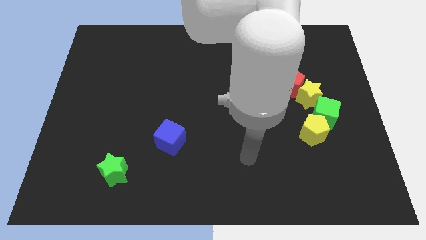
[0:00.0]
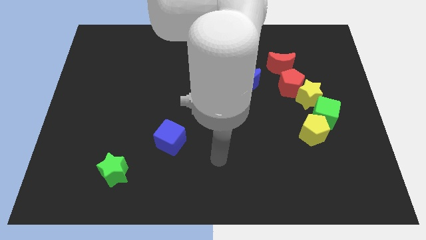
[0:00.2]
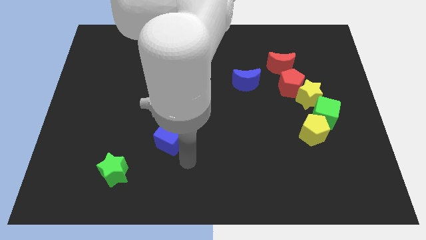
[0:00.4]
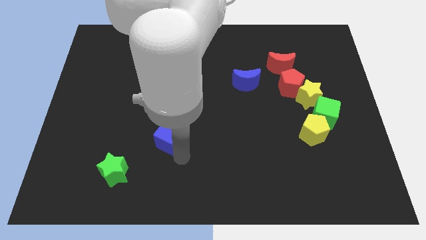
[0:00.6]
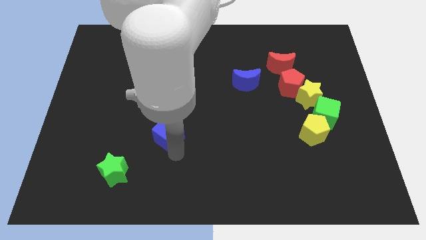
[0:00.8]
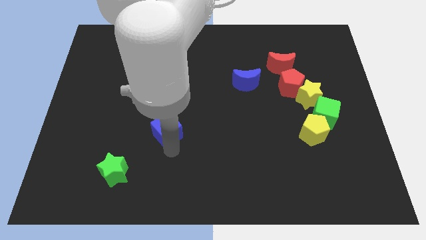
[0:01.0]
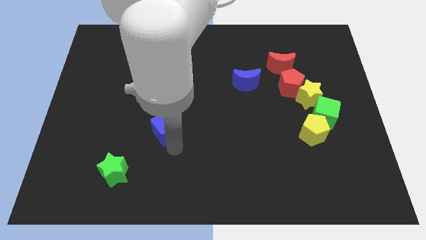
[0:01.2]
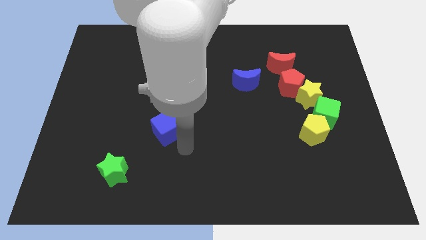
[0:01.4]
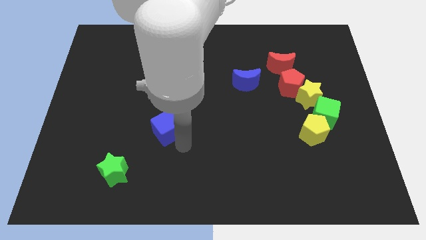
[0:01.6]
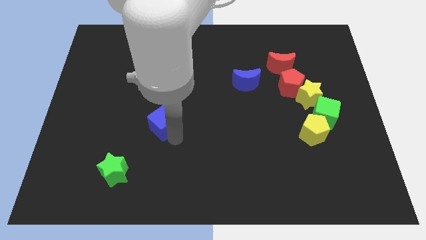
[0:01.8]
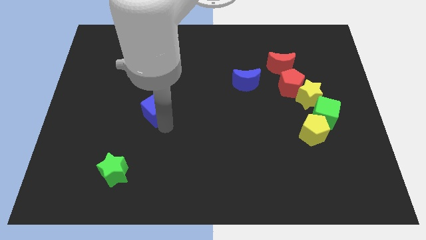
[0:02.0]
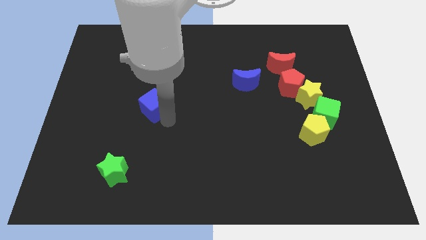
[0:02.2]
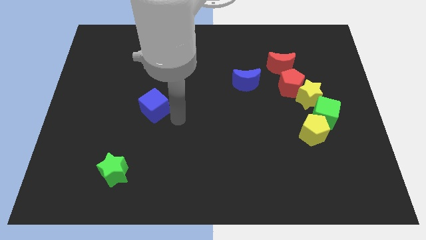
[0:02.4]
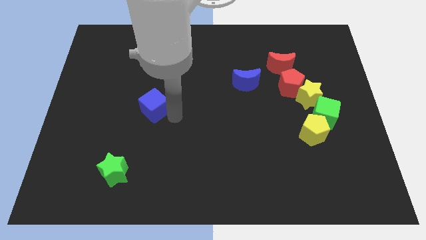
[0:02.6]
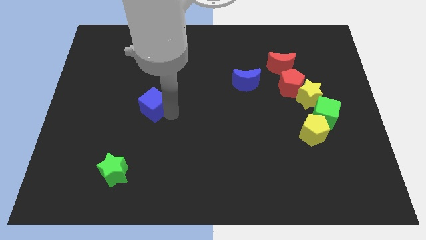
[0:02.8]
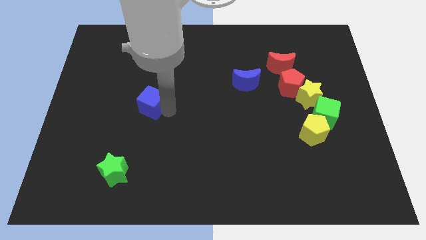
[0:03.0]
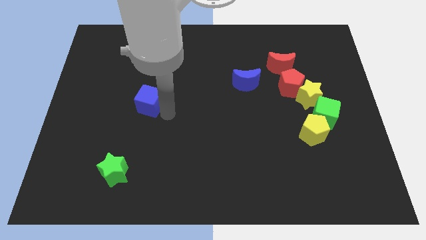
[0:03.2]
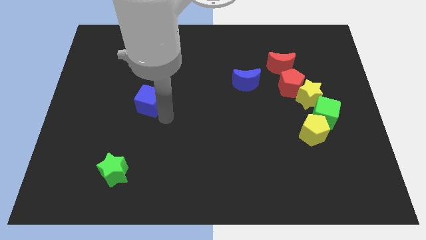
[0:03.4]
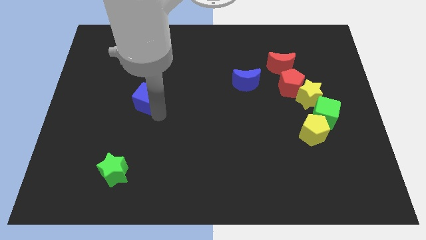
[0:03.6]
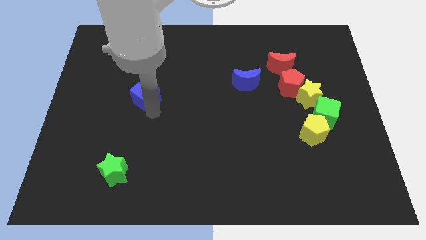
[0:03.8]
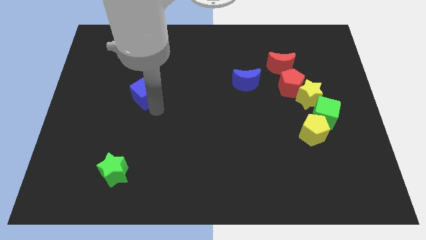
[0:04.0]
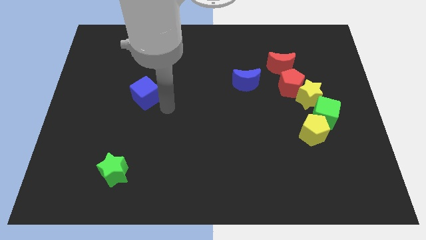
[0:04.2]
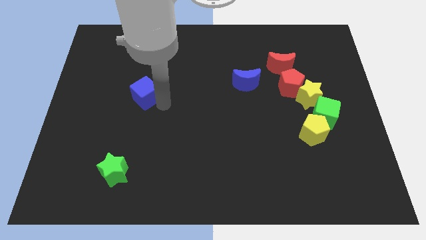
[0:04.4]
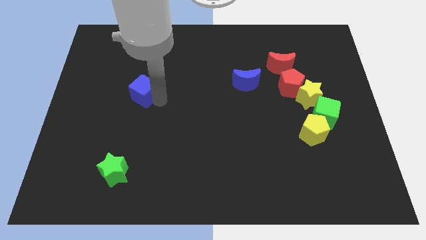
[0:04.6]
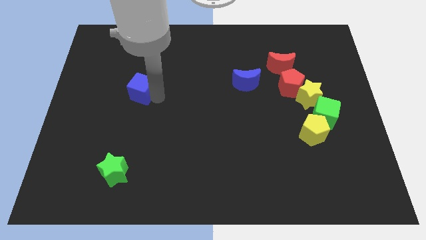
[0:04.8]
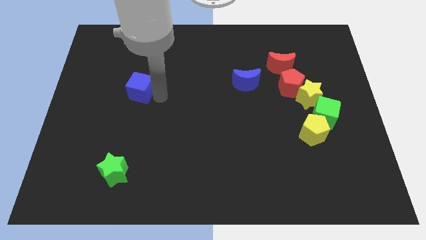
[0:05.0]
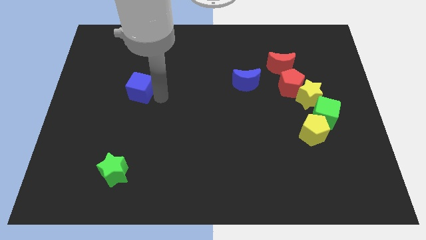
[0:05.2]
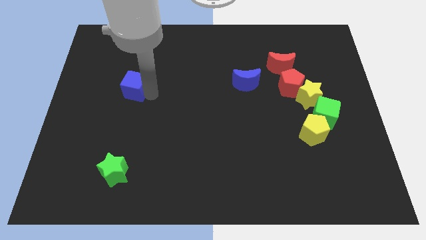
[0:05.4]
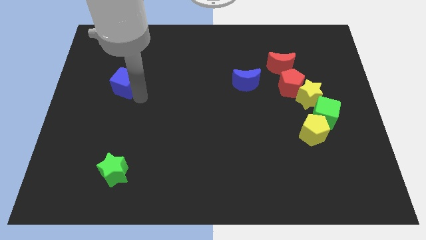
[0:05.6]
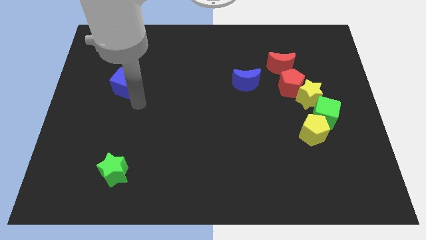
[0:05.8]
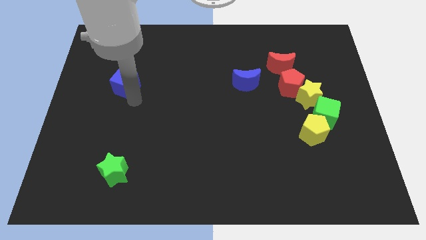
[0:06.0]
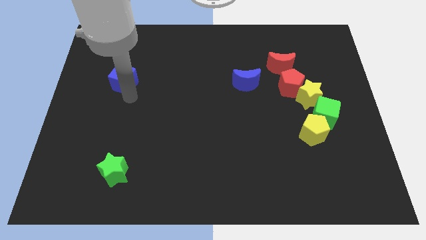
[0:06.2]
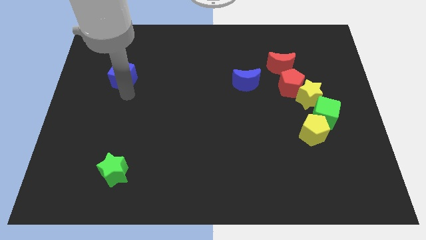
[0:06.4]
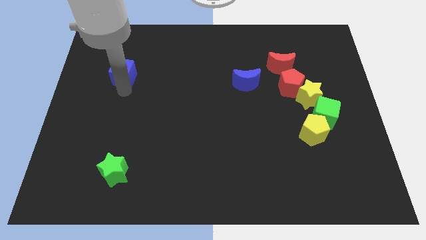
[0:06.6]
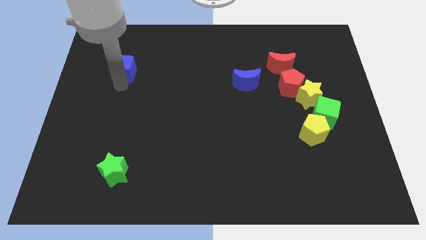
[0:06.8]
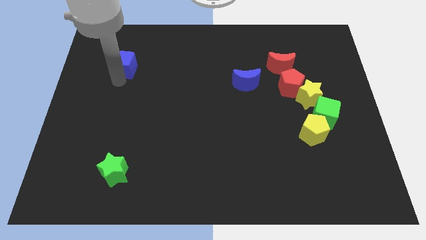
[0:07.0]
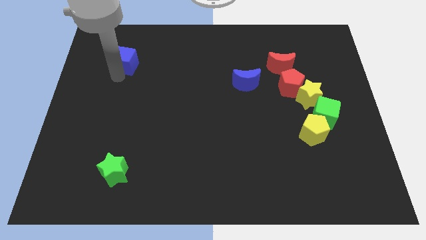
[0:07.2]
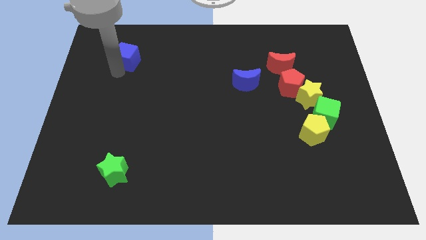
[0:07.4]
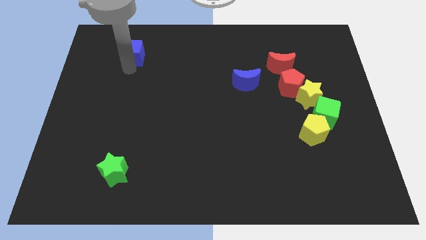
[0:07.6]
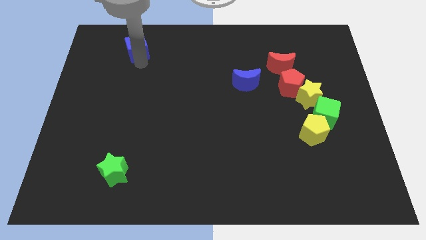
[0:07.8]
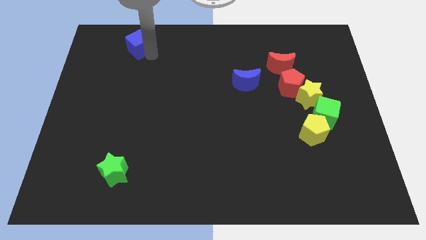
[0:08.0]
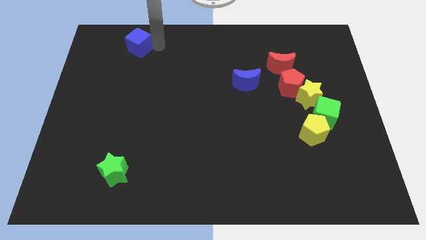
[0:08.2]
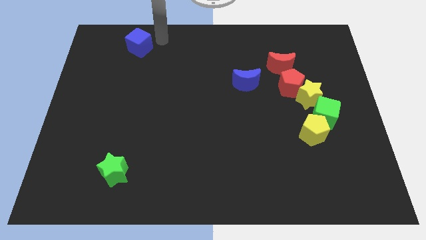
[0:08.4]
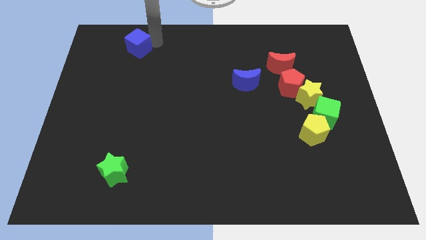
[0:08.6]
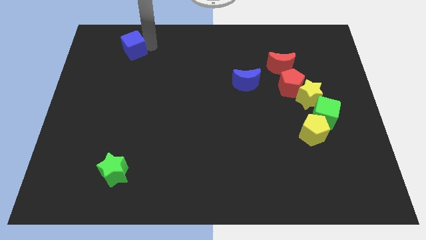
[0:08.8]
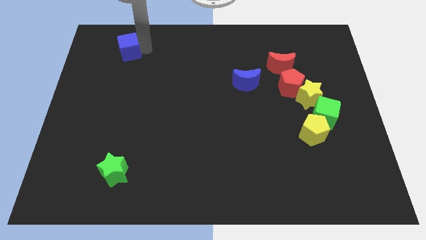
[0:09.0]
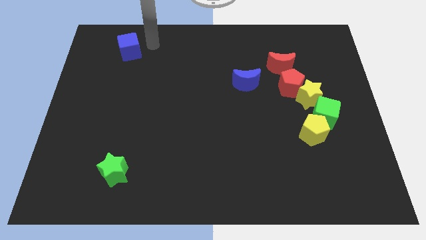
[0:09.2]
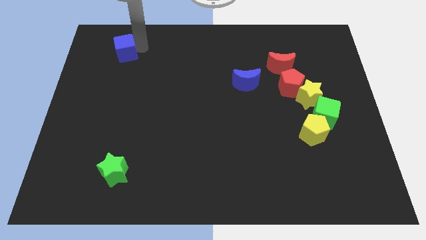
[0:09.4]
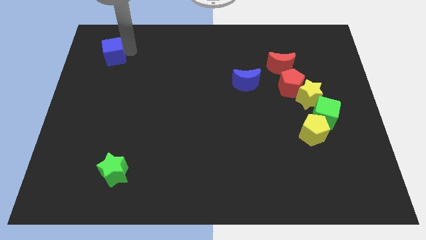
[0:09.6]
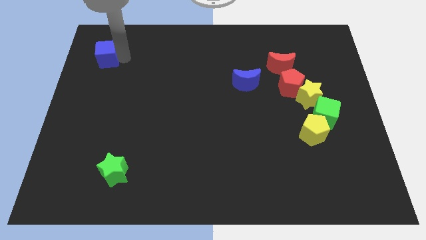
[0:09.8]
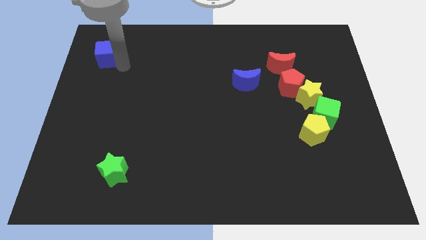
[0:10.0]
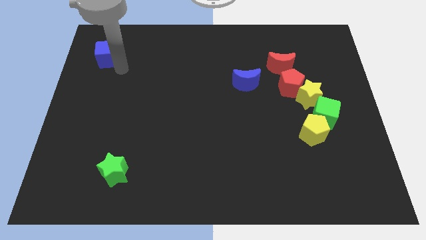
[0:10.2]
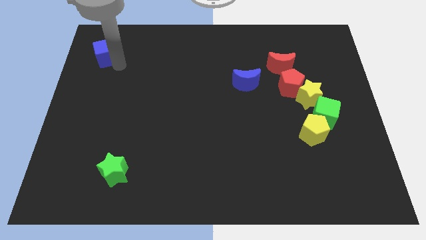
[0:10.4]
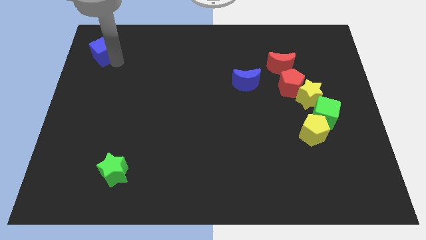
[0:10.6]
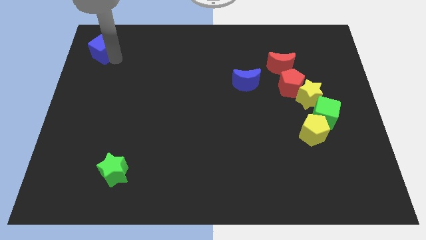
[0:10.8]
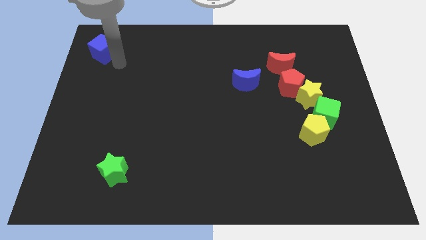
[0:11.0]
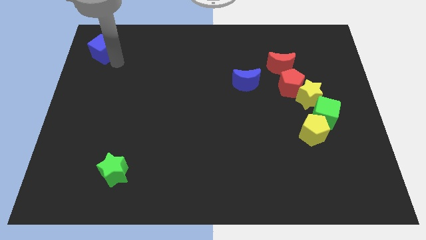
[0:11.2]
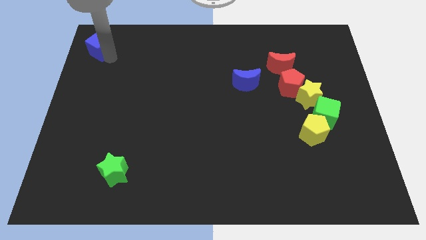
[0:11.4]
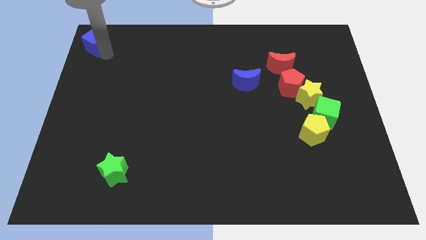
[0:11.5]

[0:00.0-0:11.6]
push the blue cube to the upper left corner

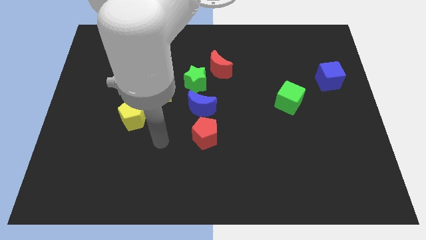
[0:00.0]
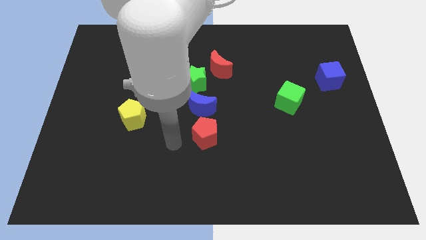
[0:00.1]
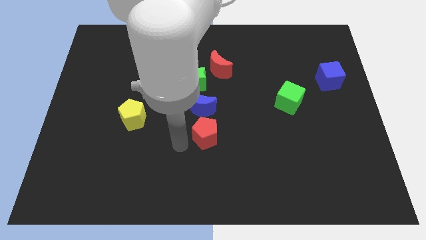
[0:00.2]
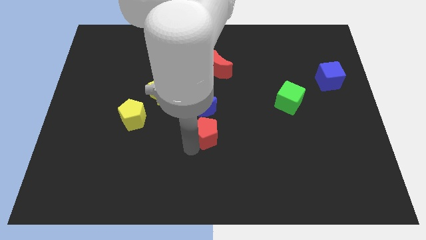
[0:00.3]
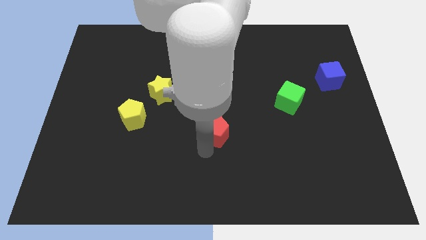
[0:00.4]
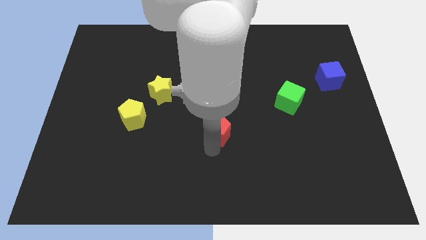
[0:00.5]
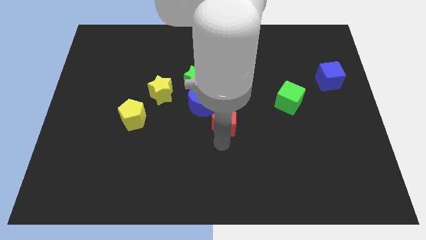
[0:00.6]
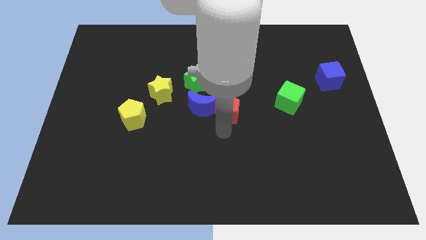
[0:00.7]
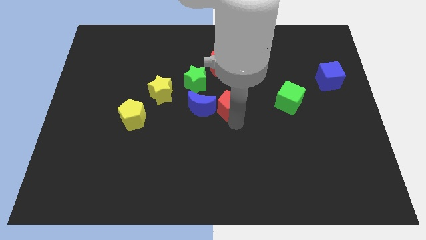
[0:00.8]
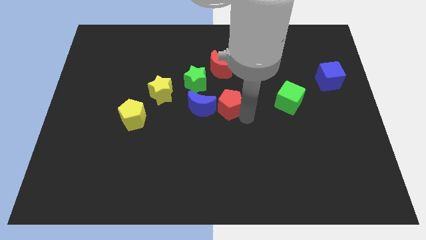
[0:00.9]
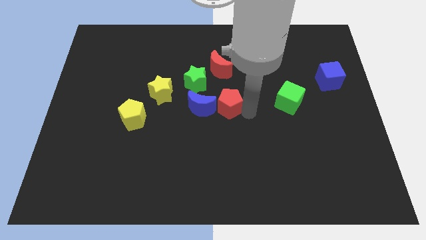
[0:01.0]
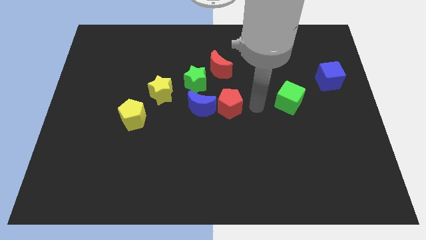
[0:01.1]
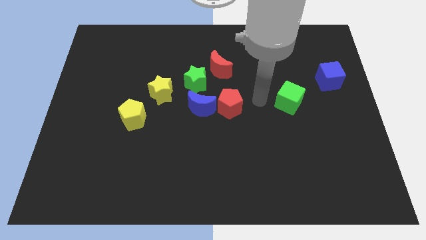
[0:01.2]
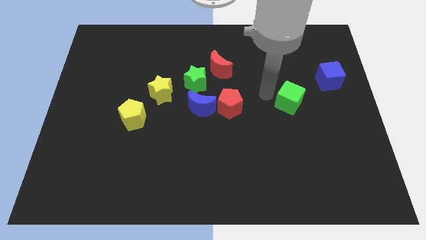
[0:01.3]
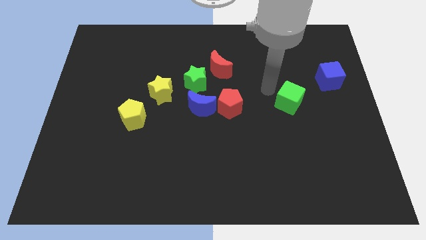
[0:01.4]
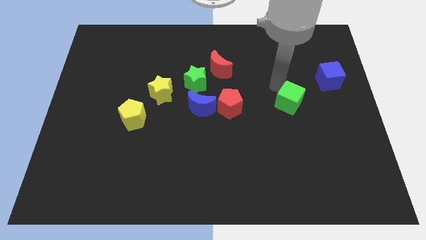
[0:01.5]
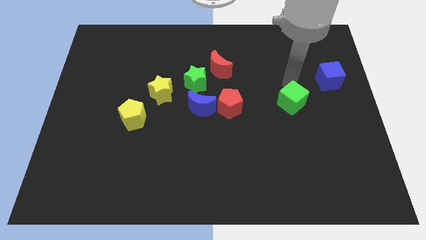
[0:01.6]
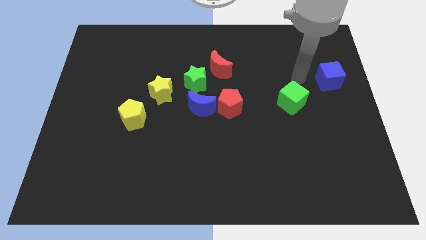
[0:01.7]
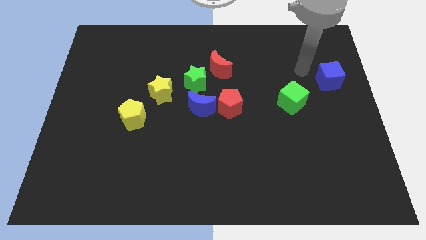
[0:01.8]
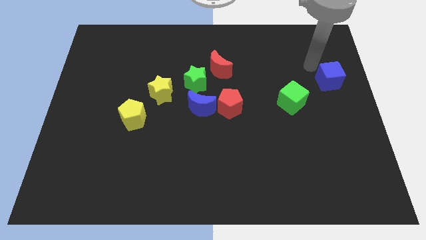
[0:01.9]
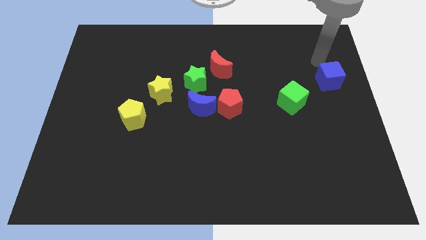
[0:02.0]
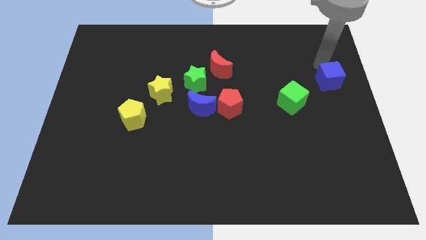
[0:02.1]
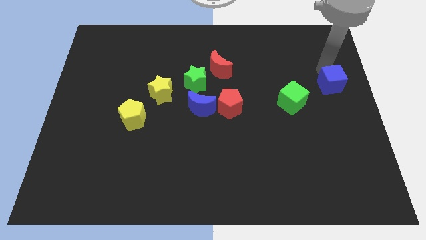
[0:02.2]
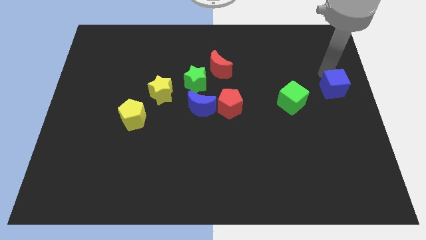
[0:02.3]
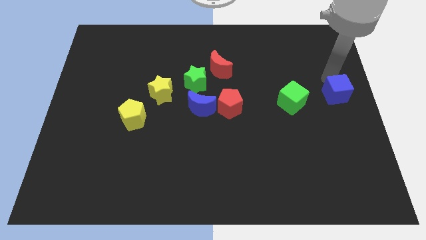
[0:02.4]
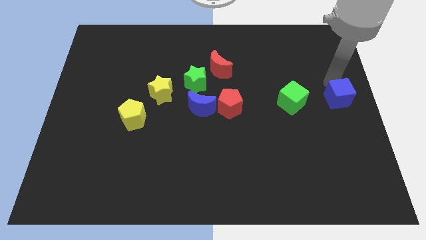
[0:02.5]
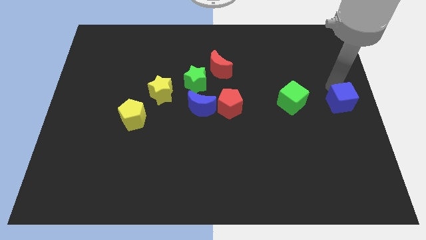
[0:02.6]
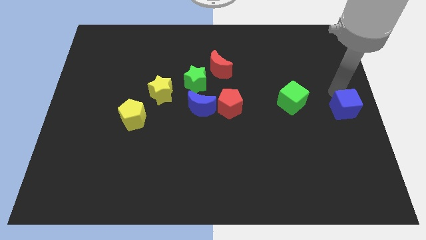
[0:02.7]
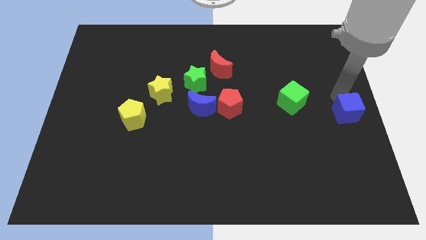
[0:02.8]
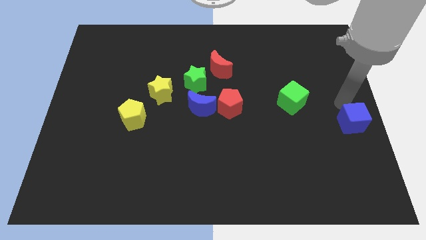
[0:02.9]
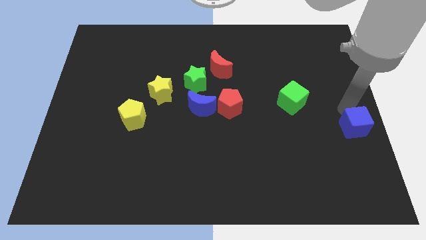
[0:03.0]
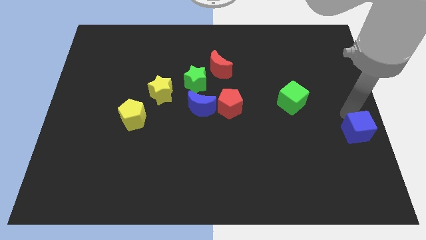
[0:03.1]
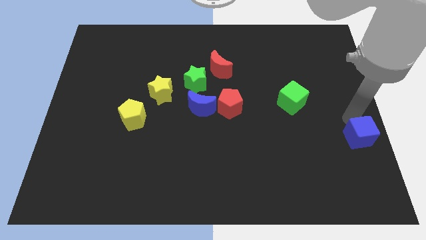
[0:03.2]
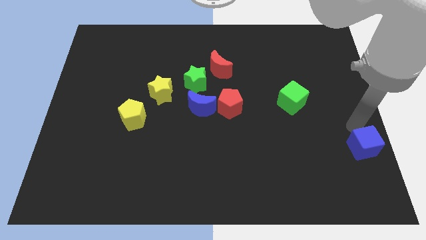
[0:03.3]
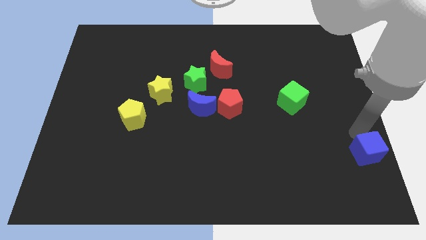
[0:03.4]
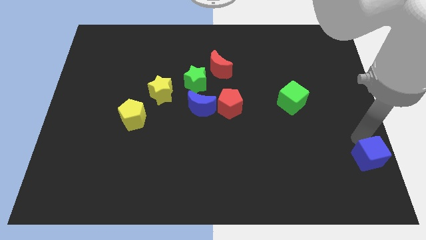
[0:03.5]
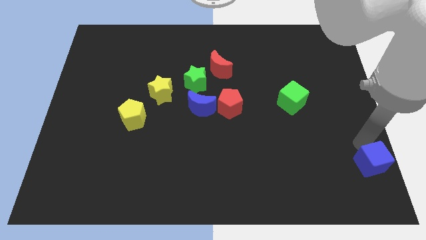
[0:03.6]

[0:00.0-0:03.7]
move the blue cube to the bottom right
